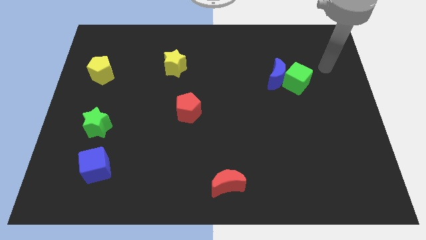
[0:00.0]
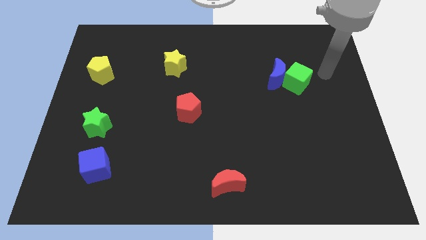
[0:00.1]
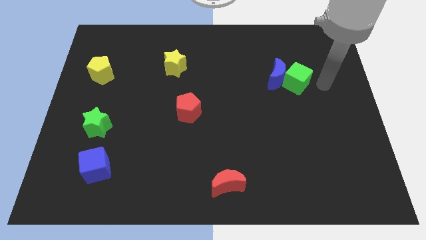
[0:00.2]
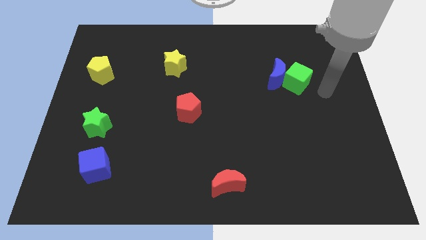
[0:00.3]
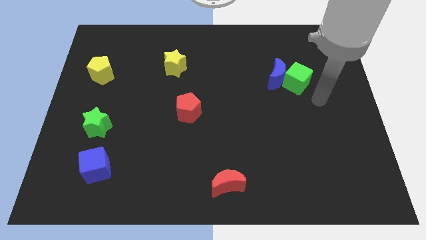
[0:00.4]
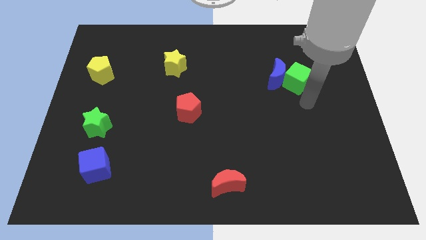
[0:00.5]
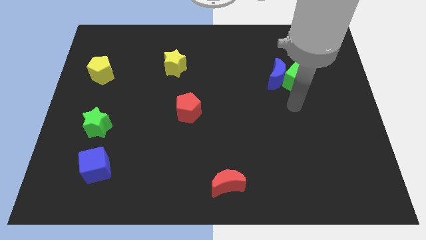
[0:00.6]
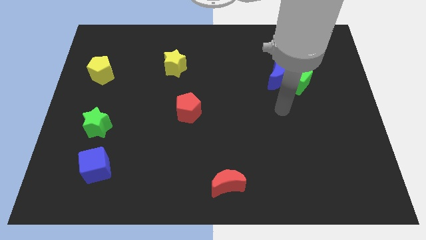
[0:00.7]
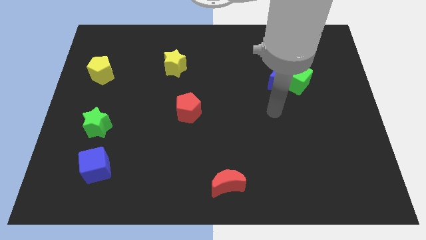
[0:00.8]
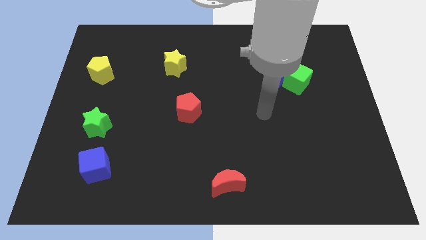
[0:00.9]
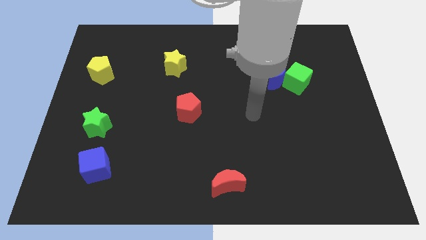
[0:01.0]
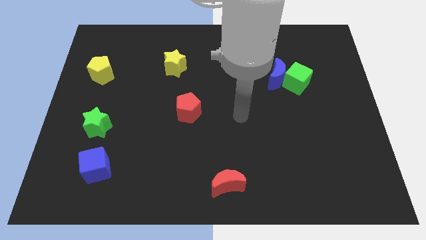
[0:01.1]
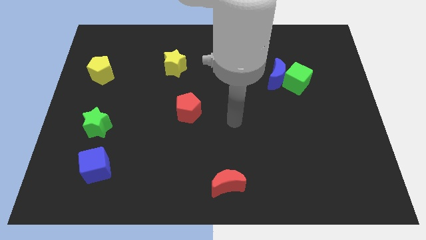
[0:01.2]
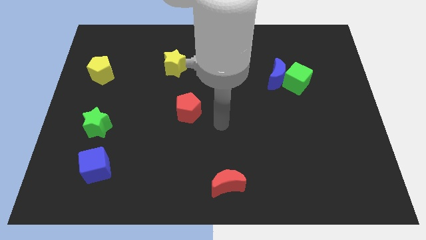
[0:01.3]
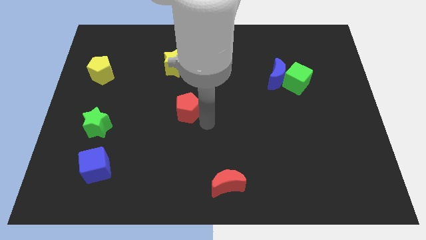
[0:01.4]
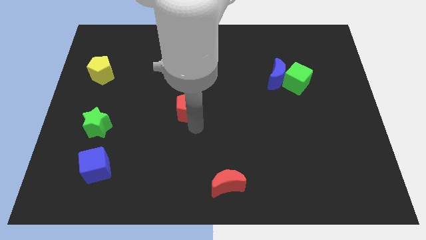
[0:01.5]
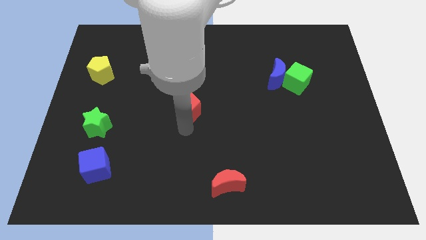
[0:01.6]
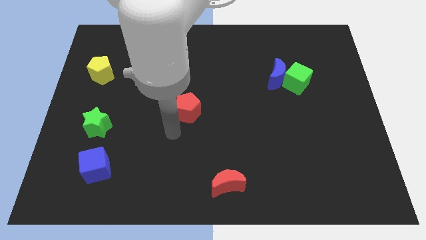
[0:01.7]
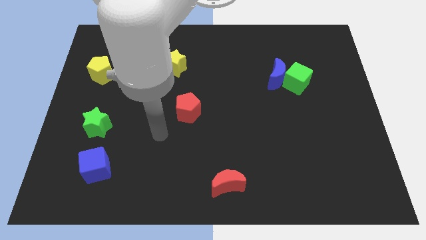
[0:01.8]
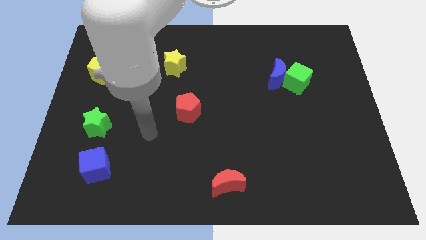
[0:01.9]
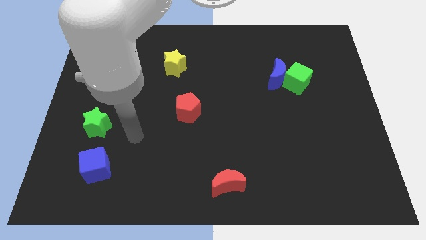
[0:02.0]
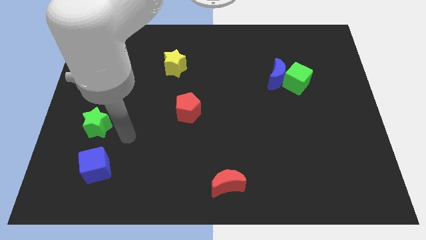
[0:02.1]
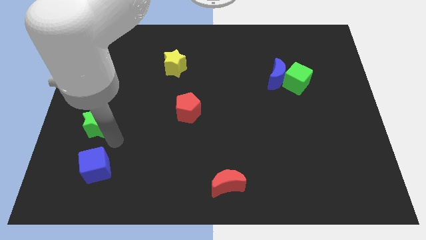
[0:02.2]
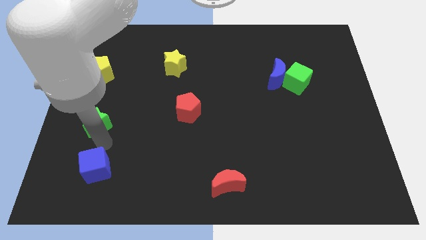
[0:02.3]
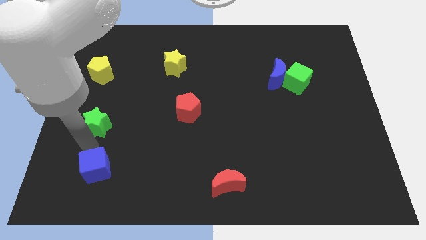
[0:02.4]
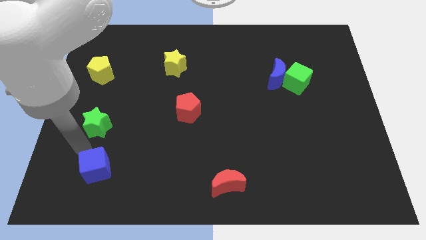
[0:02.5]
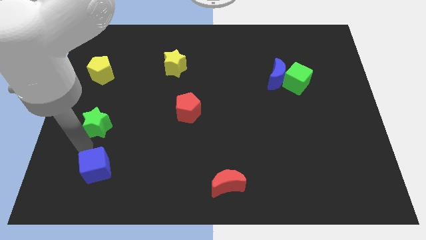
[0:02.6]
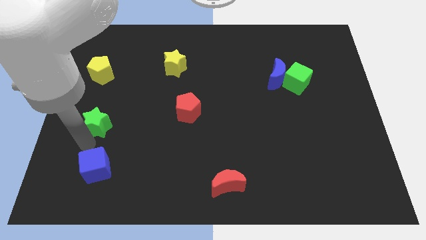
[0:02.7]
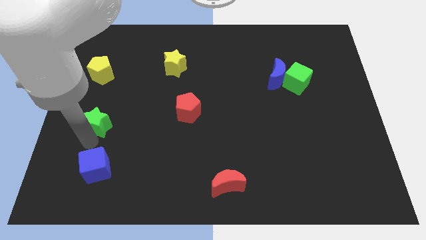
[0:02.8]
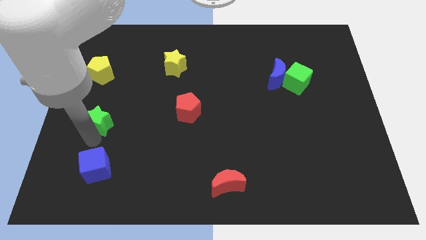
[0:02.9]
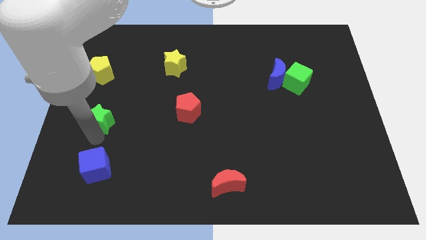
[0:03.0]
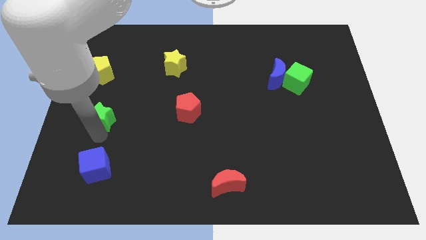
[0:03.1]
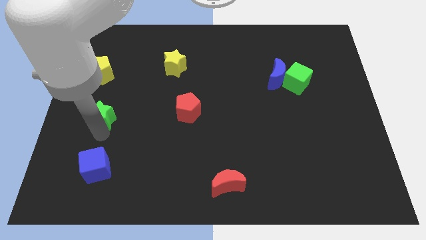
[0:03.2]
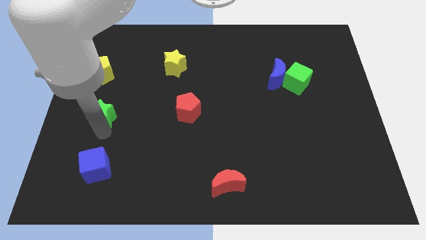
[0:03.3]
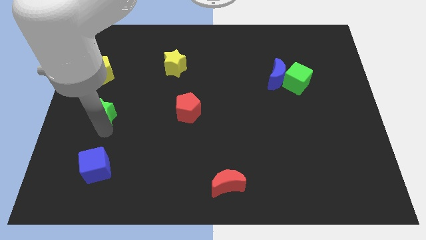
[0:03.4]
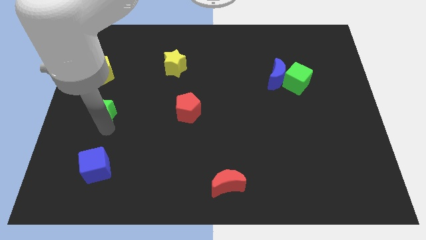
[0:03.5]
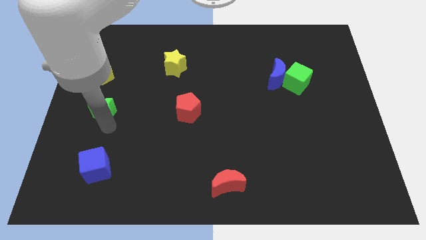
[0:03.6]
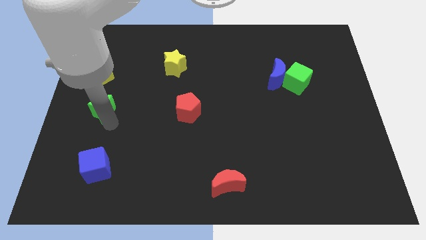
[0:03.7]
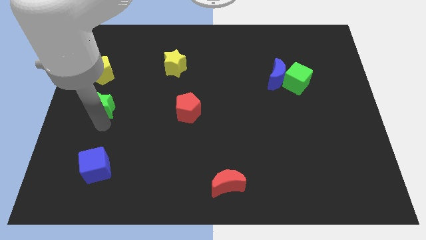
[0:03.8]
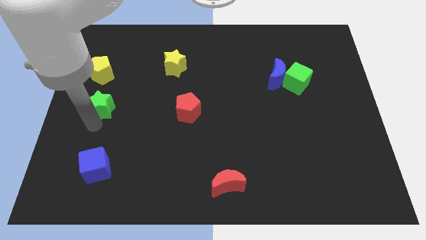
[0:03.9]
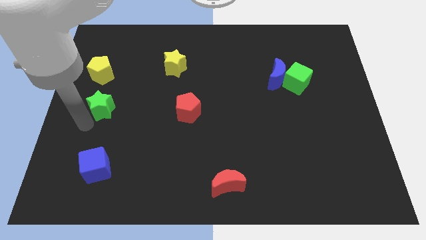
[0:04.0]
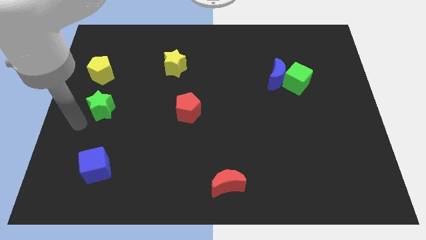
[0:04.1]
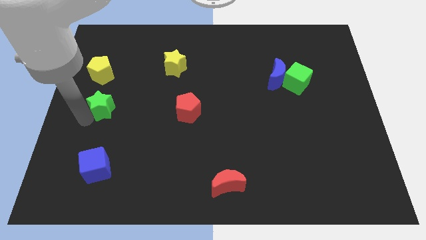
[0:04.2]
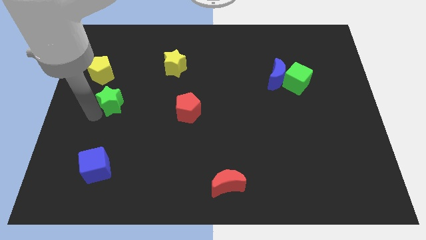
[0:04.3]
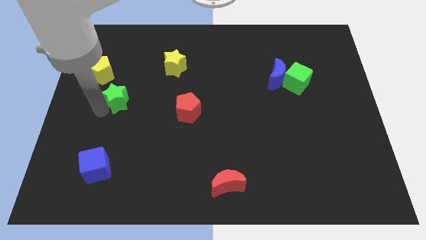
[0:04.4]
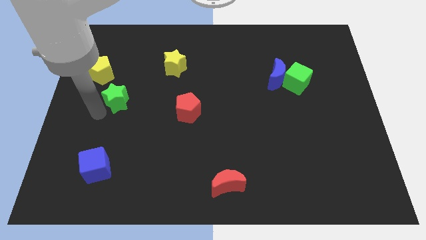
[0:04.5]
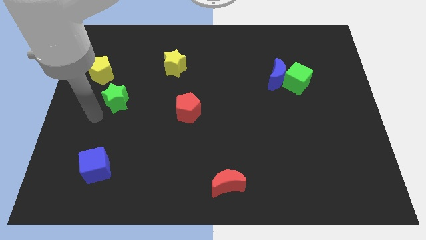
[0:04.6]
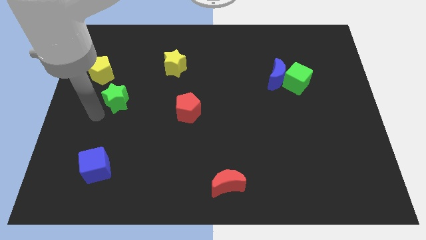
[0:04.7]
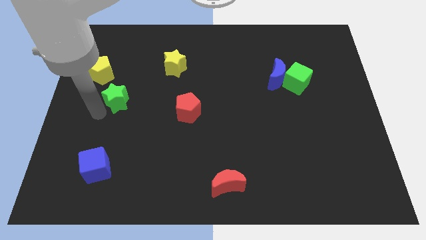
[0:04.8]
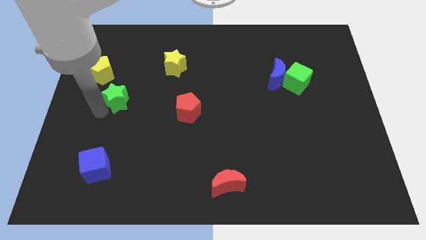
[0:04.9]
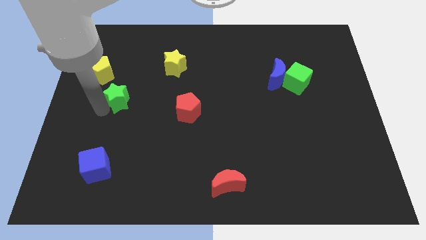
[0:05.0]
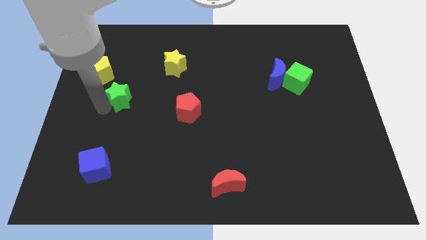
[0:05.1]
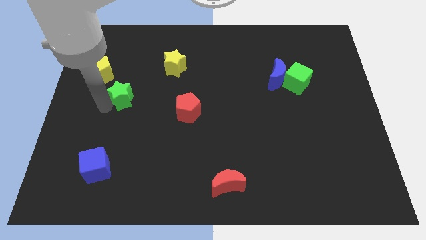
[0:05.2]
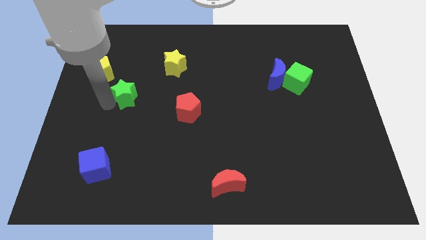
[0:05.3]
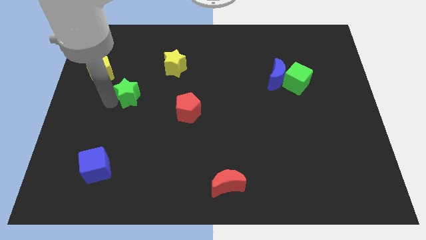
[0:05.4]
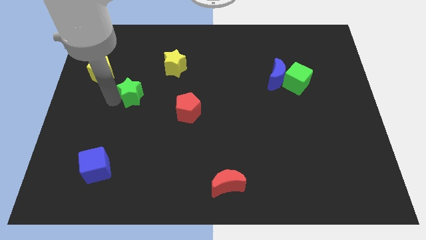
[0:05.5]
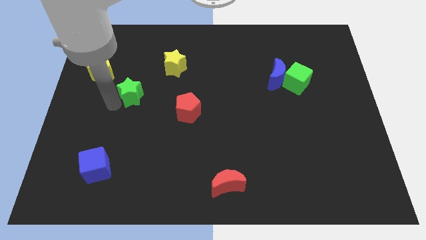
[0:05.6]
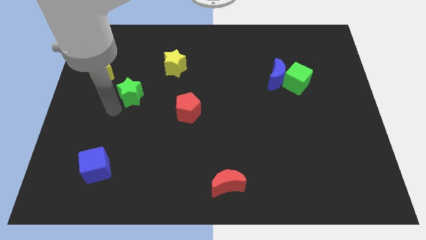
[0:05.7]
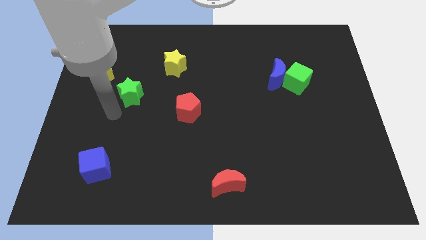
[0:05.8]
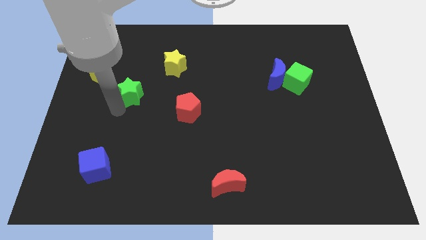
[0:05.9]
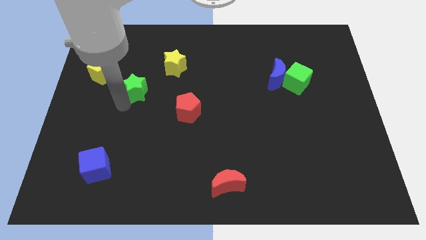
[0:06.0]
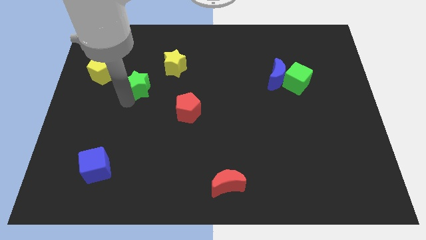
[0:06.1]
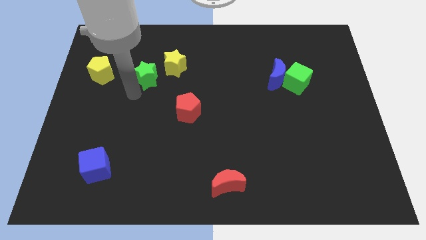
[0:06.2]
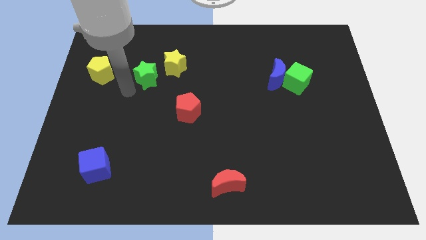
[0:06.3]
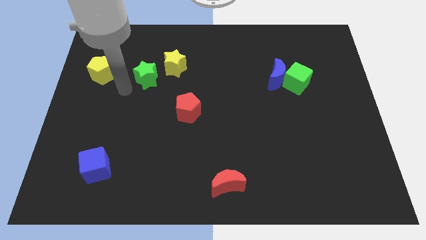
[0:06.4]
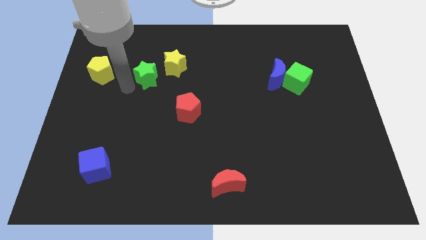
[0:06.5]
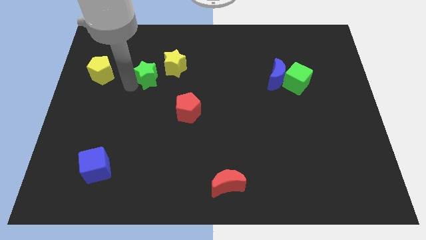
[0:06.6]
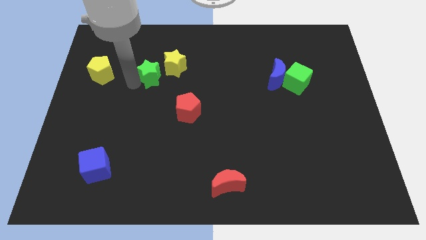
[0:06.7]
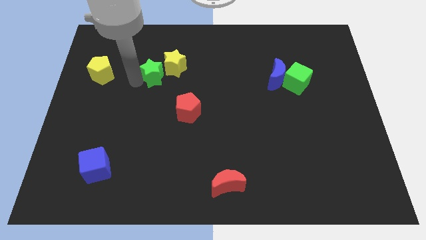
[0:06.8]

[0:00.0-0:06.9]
move the green star close to the yellow star
